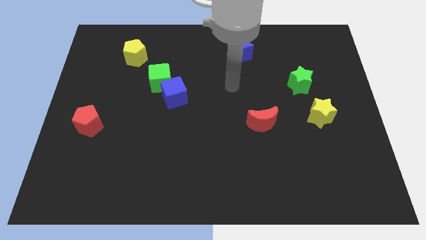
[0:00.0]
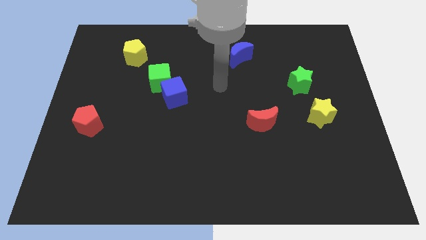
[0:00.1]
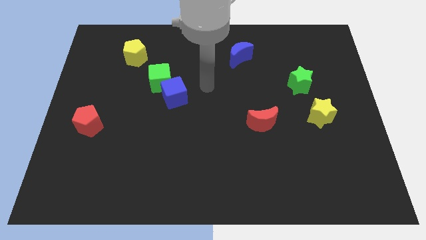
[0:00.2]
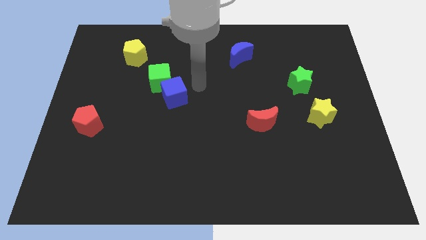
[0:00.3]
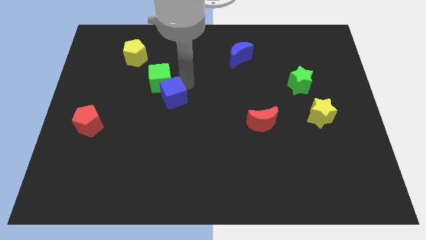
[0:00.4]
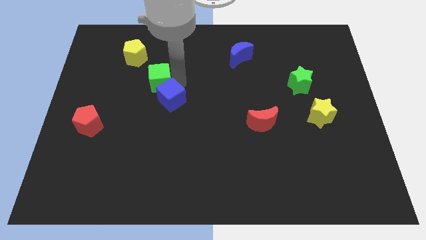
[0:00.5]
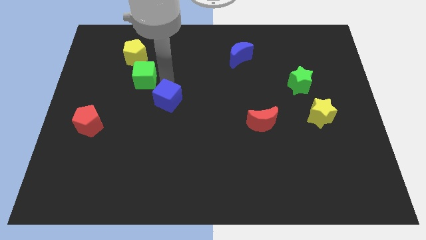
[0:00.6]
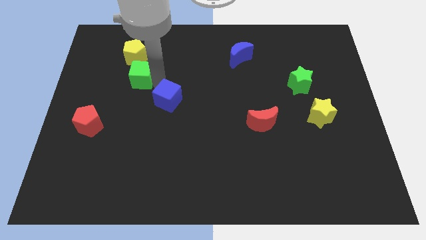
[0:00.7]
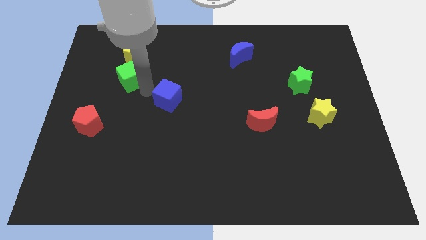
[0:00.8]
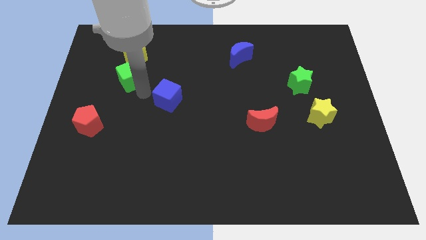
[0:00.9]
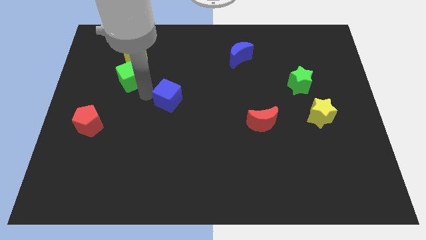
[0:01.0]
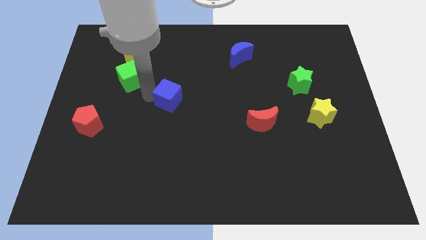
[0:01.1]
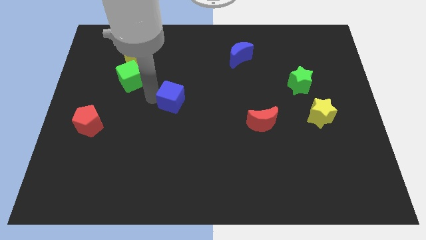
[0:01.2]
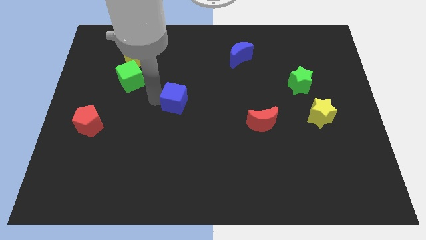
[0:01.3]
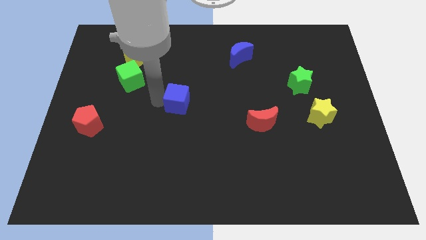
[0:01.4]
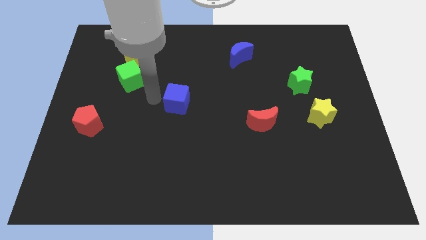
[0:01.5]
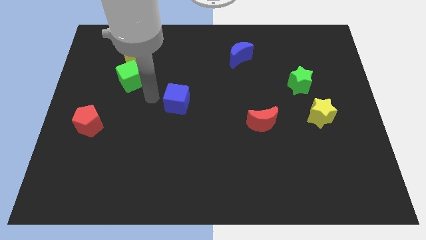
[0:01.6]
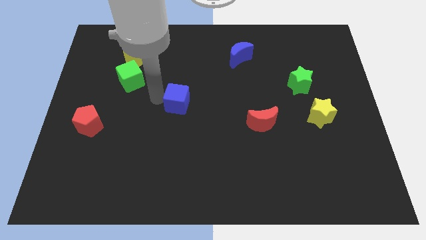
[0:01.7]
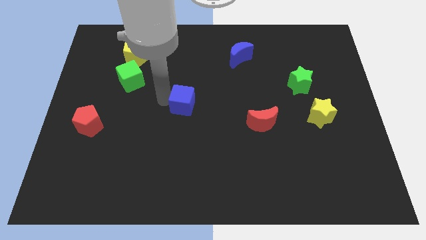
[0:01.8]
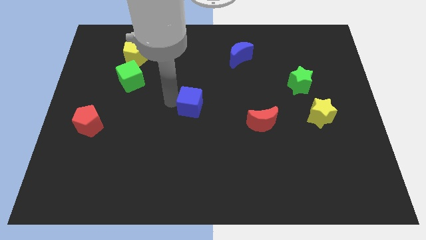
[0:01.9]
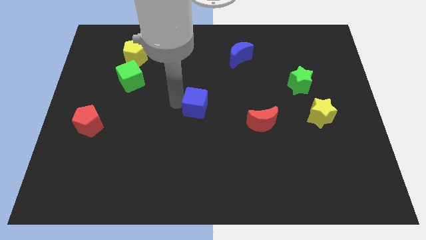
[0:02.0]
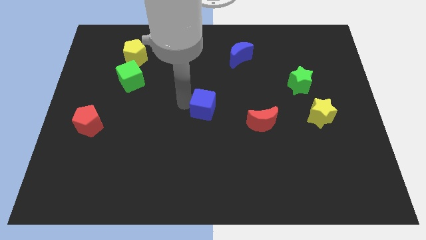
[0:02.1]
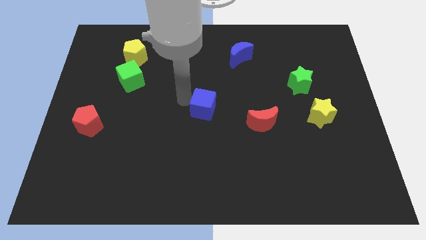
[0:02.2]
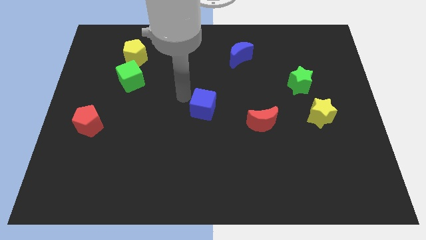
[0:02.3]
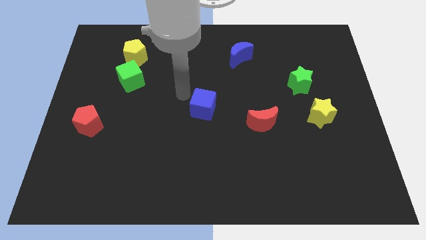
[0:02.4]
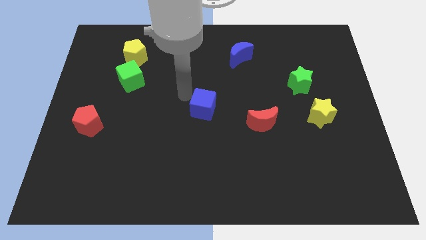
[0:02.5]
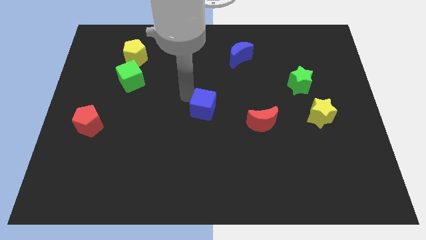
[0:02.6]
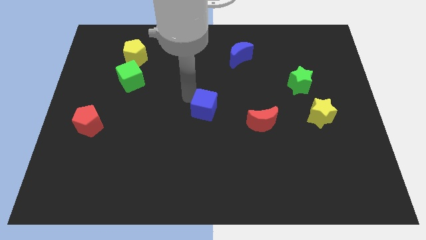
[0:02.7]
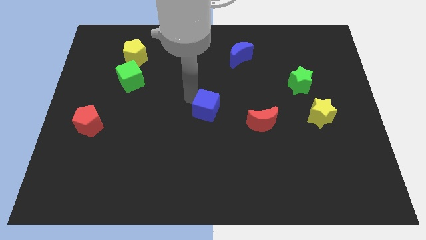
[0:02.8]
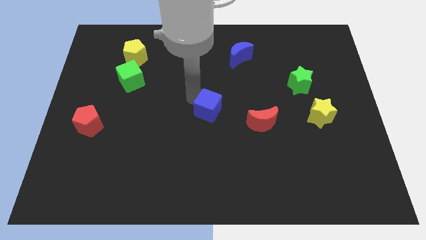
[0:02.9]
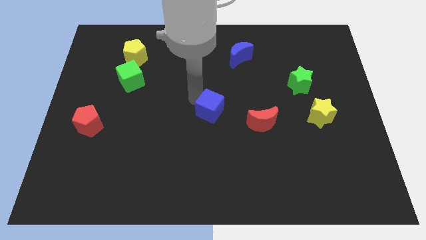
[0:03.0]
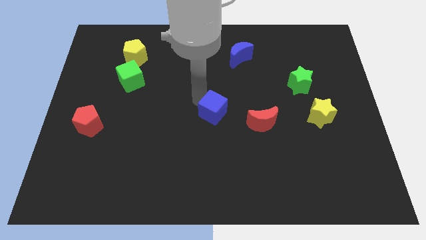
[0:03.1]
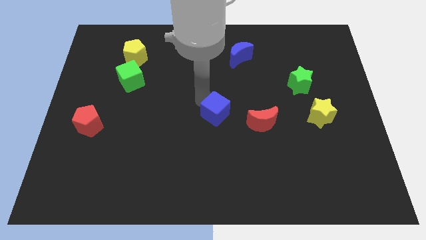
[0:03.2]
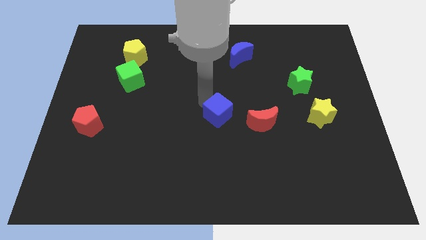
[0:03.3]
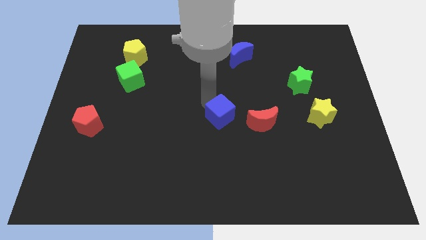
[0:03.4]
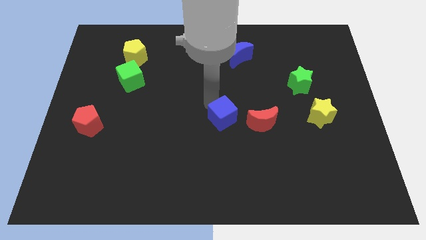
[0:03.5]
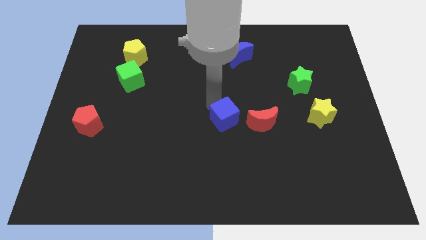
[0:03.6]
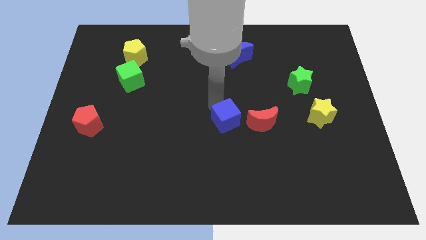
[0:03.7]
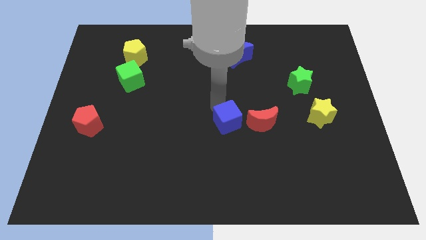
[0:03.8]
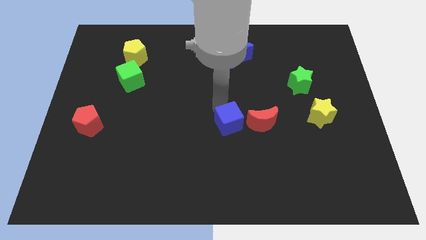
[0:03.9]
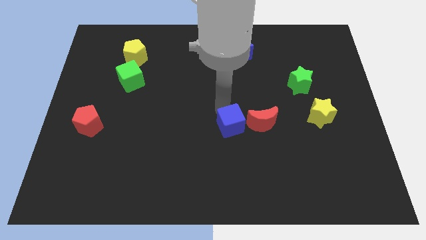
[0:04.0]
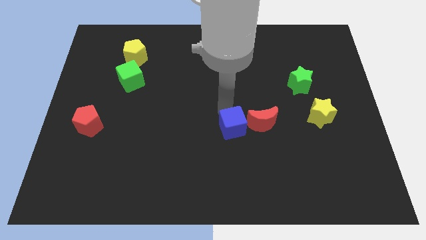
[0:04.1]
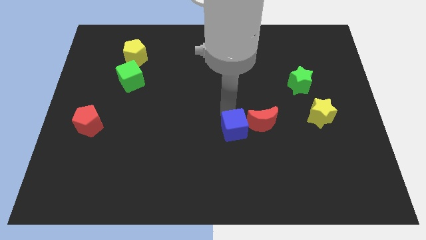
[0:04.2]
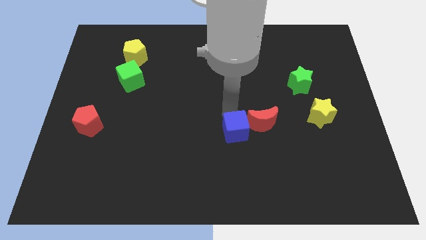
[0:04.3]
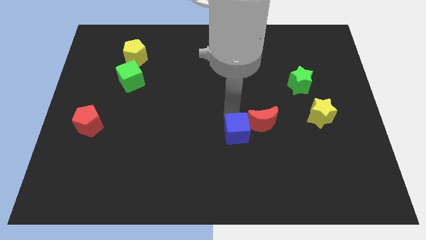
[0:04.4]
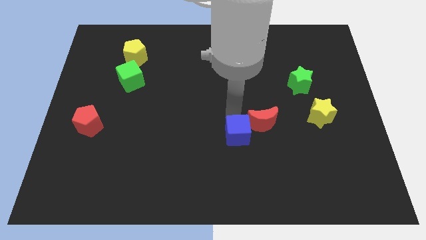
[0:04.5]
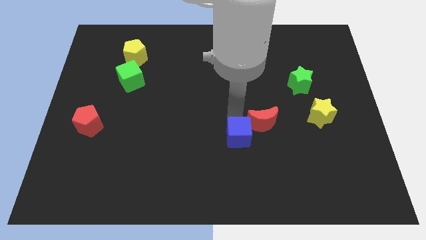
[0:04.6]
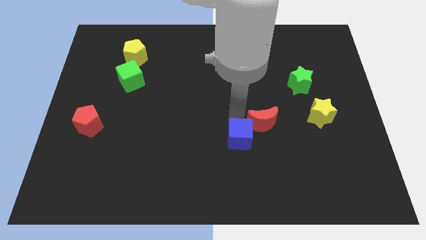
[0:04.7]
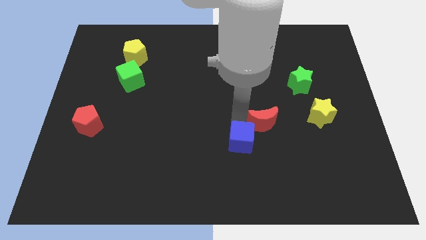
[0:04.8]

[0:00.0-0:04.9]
move the blue cube downwards and right diagonally

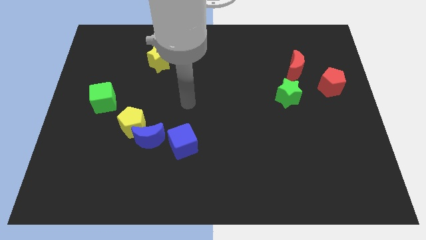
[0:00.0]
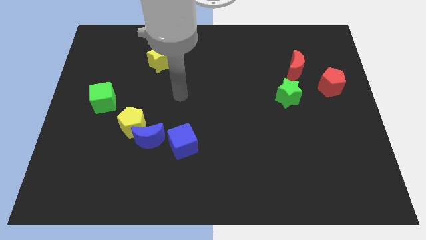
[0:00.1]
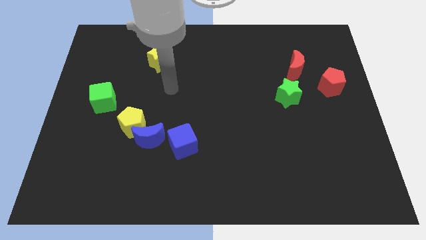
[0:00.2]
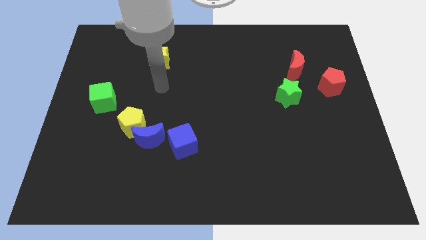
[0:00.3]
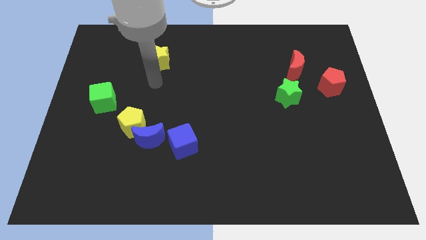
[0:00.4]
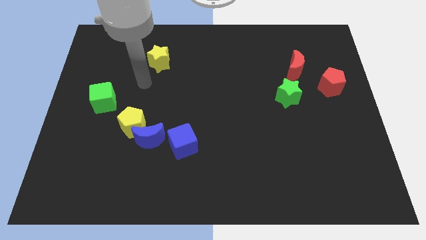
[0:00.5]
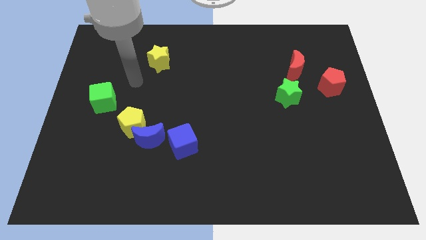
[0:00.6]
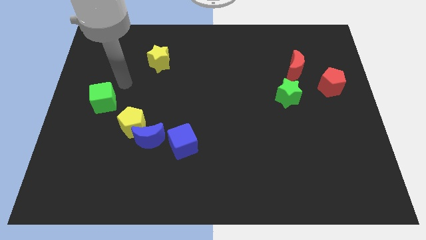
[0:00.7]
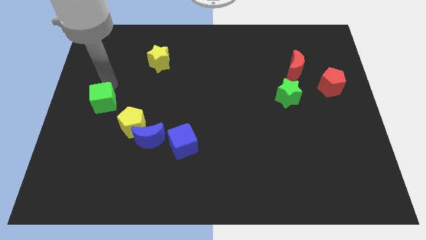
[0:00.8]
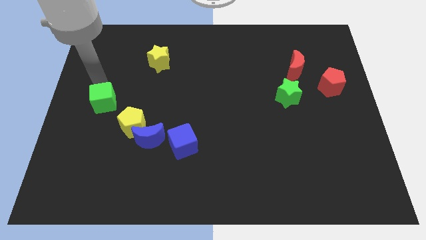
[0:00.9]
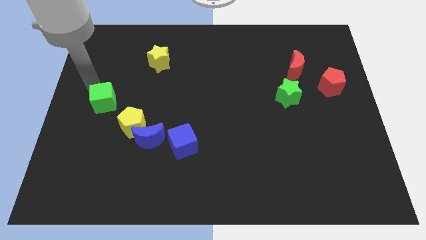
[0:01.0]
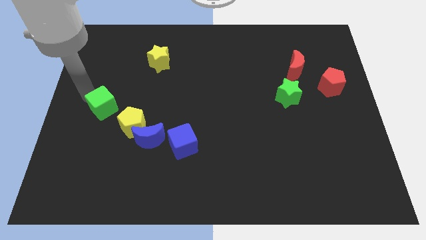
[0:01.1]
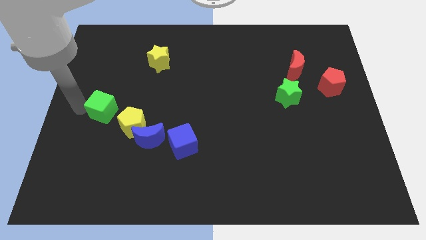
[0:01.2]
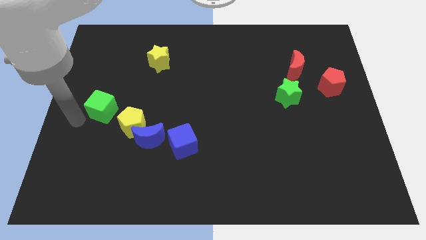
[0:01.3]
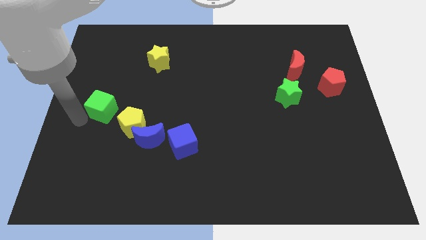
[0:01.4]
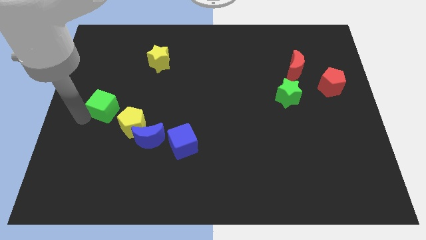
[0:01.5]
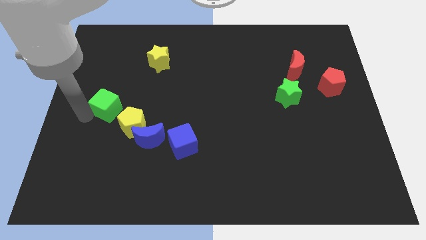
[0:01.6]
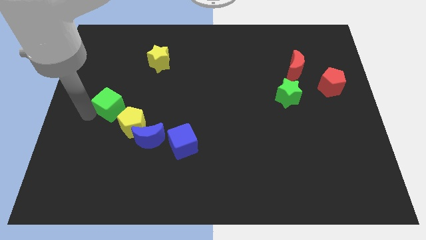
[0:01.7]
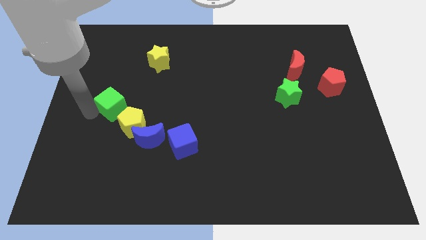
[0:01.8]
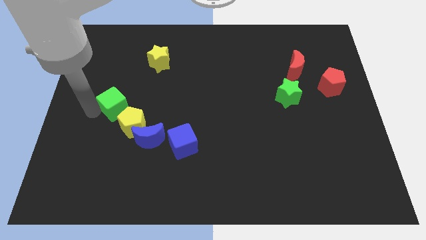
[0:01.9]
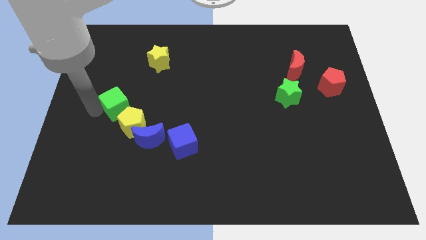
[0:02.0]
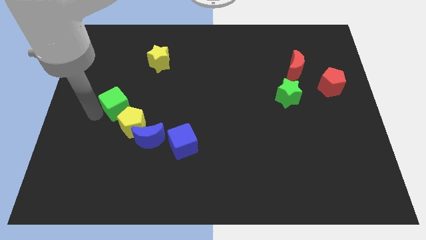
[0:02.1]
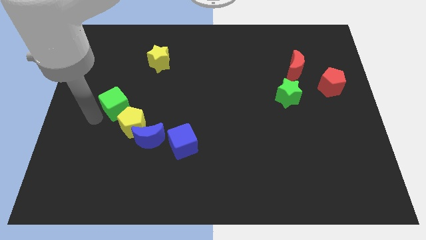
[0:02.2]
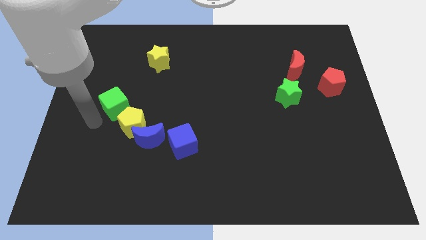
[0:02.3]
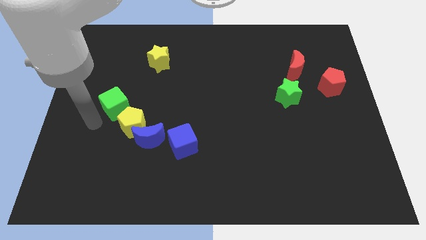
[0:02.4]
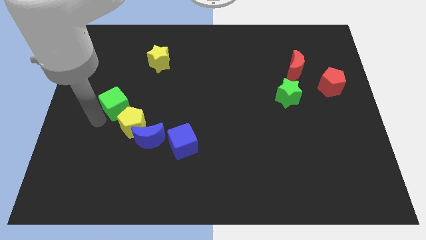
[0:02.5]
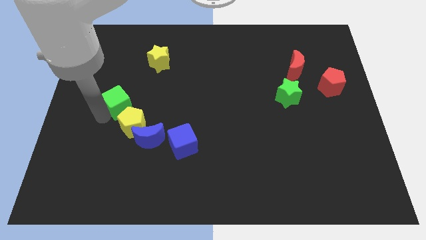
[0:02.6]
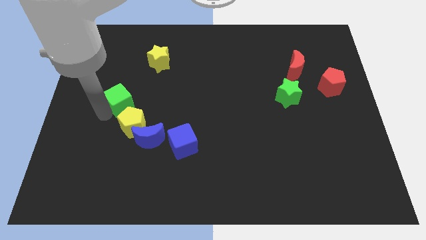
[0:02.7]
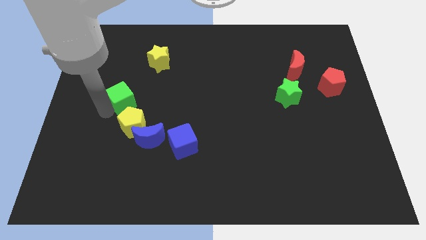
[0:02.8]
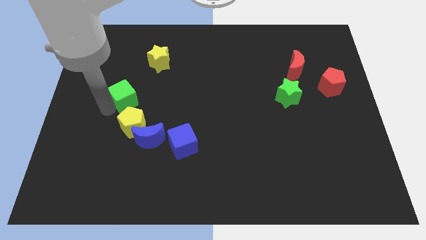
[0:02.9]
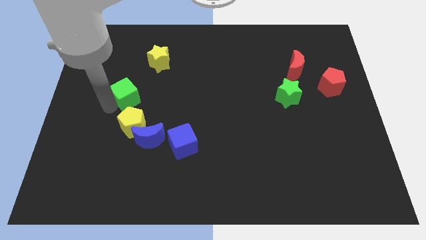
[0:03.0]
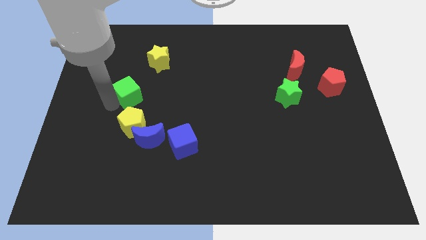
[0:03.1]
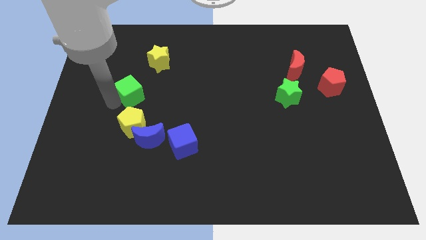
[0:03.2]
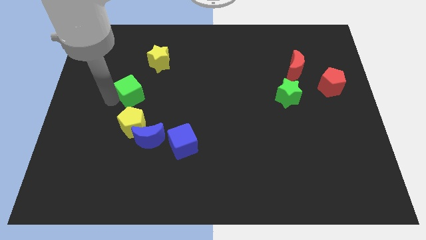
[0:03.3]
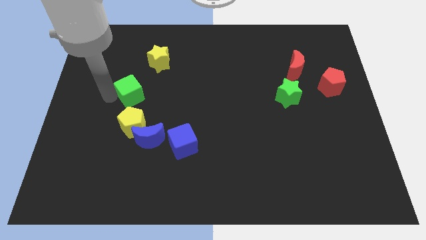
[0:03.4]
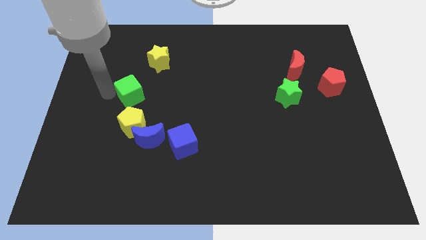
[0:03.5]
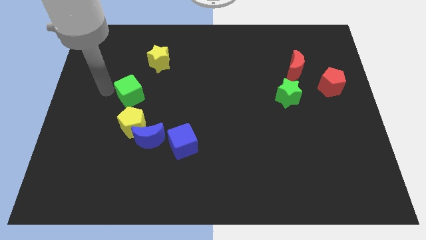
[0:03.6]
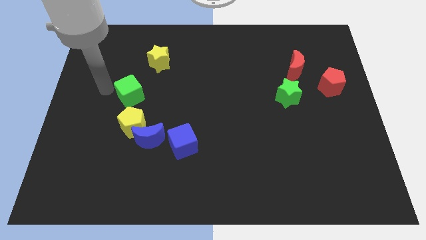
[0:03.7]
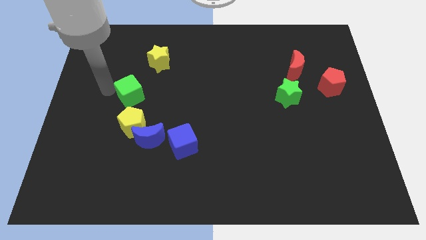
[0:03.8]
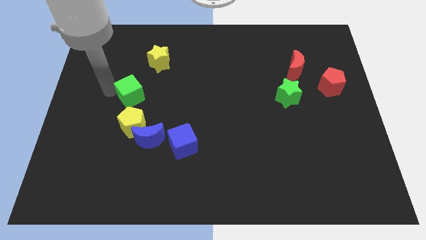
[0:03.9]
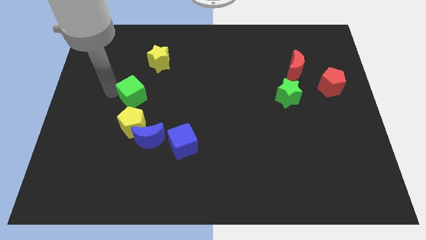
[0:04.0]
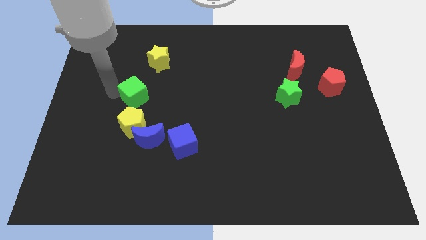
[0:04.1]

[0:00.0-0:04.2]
slightly move the green cube to the right
